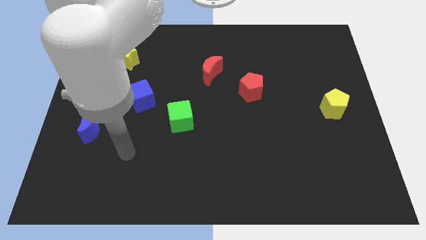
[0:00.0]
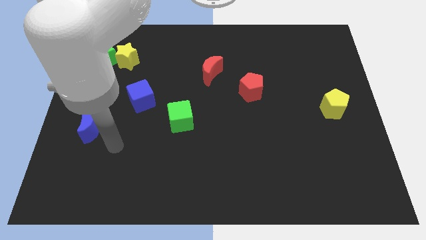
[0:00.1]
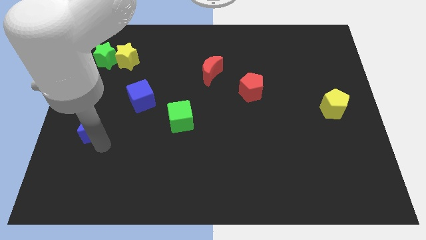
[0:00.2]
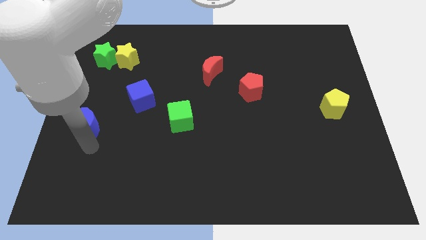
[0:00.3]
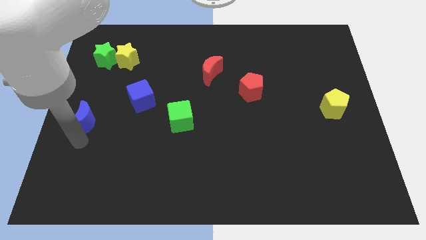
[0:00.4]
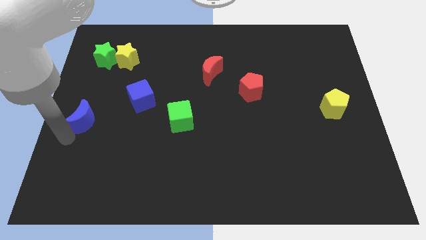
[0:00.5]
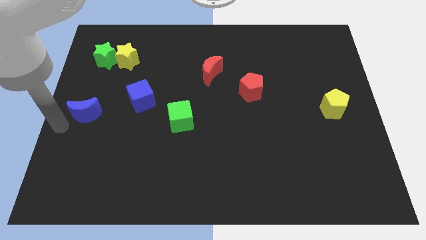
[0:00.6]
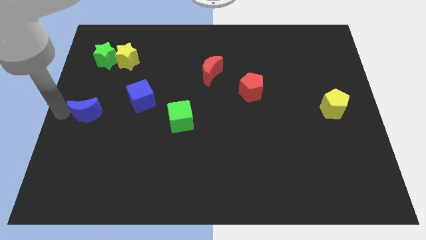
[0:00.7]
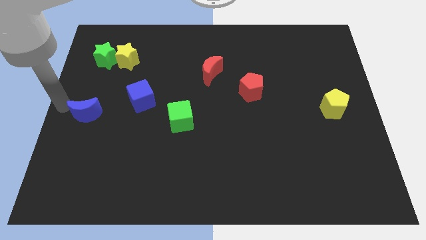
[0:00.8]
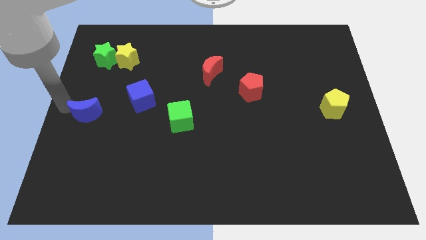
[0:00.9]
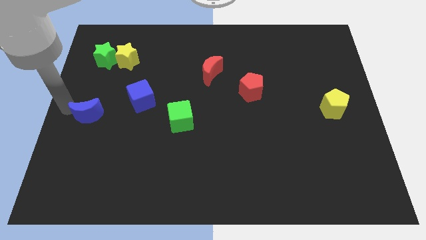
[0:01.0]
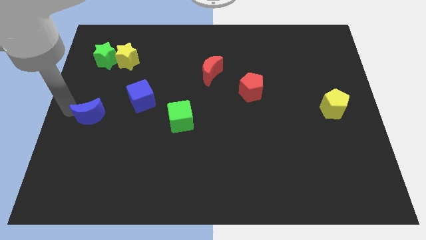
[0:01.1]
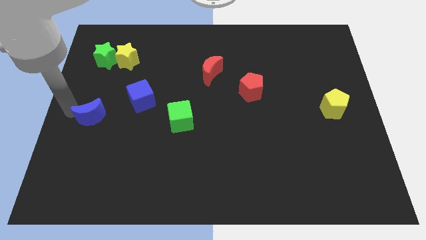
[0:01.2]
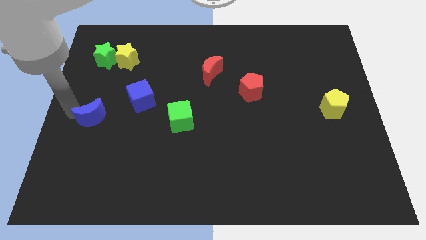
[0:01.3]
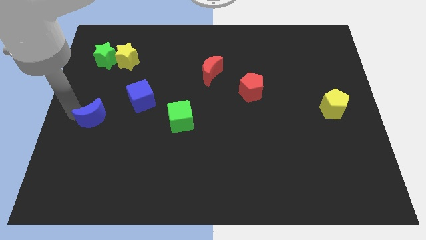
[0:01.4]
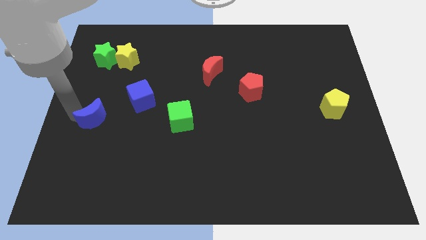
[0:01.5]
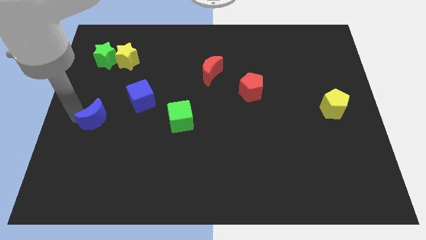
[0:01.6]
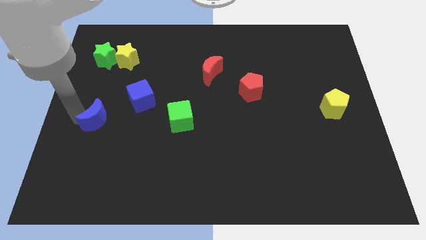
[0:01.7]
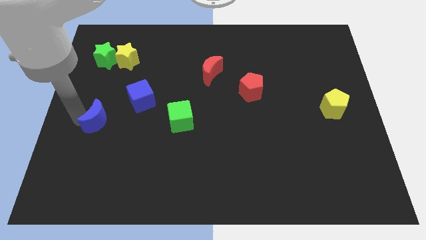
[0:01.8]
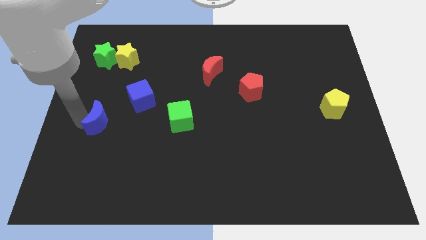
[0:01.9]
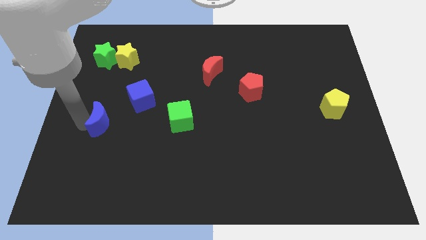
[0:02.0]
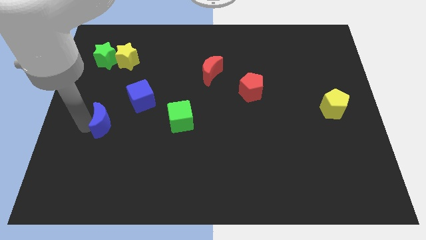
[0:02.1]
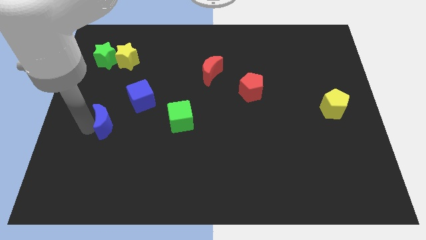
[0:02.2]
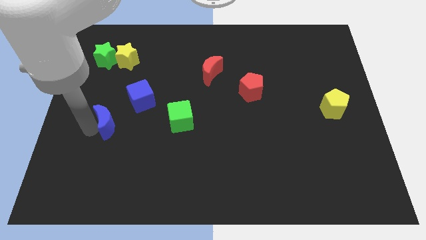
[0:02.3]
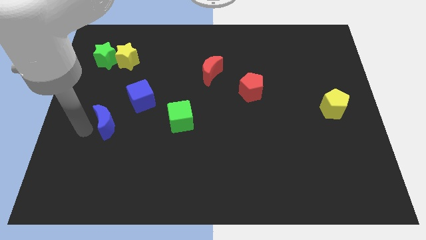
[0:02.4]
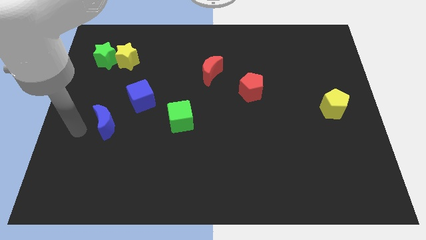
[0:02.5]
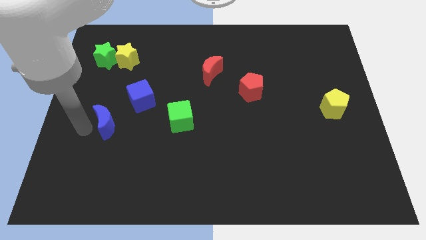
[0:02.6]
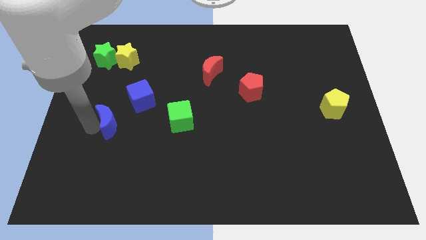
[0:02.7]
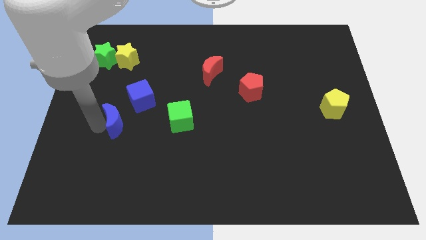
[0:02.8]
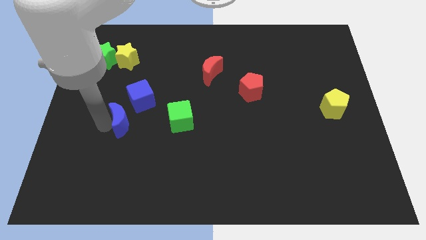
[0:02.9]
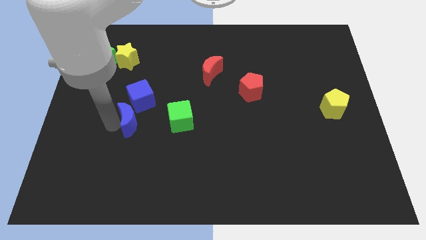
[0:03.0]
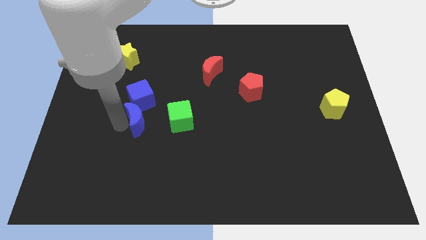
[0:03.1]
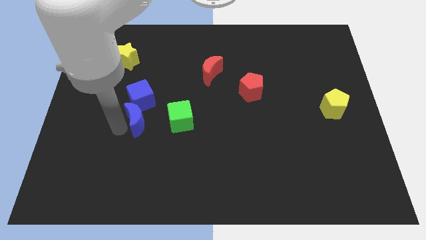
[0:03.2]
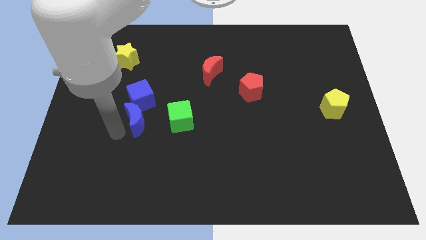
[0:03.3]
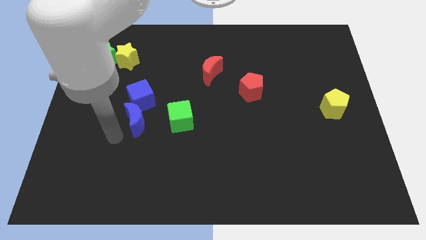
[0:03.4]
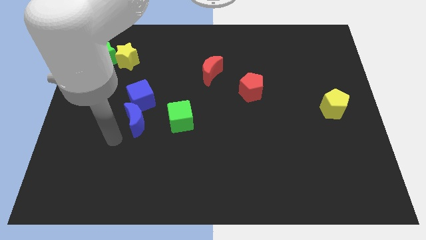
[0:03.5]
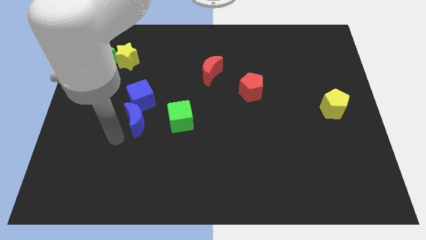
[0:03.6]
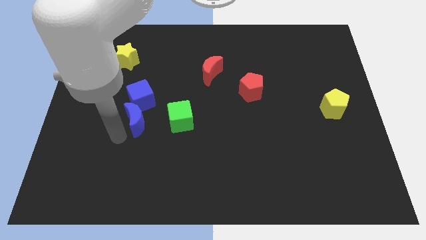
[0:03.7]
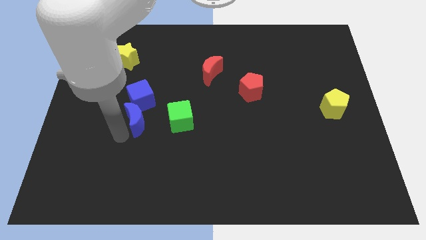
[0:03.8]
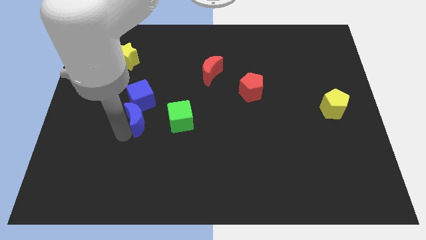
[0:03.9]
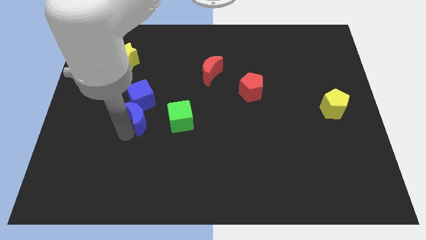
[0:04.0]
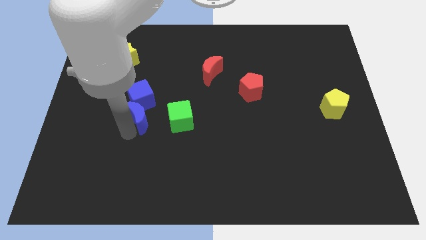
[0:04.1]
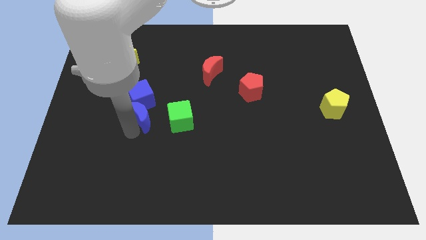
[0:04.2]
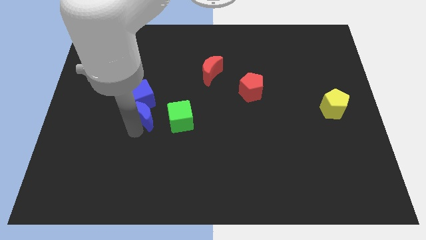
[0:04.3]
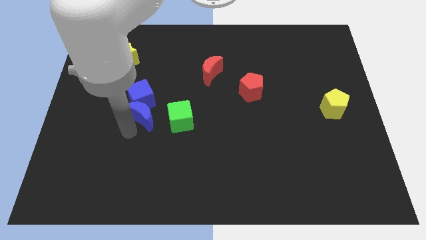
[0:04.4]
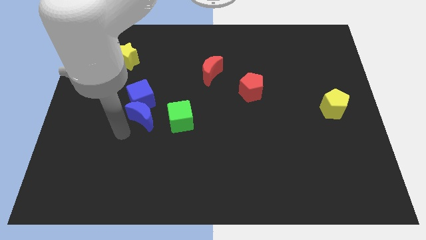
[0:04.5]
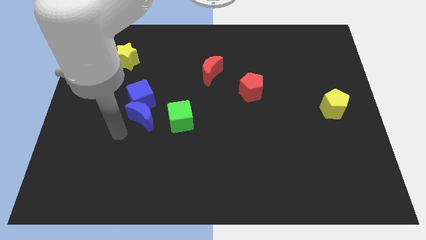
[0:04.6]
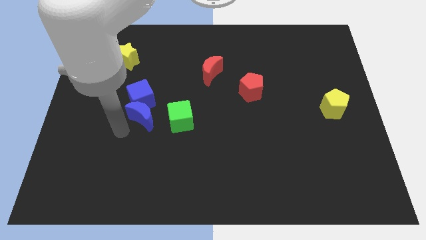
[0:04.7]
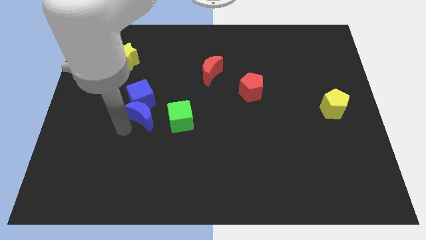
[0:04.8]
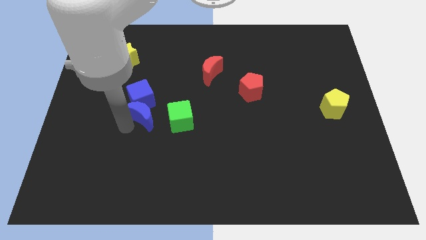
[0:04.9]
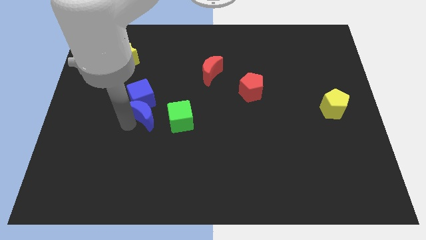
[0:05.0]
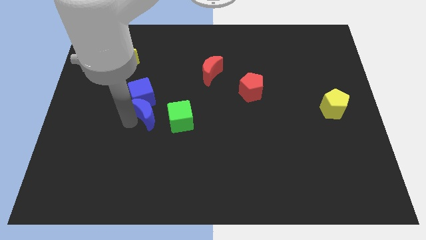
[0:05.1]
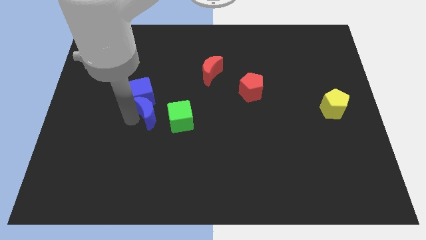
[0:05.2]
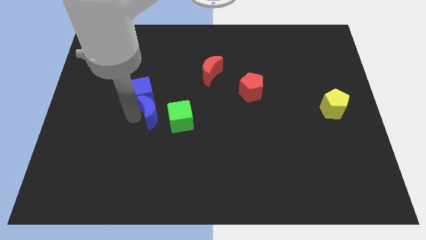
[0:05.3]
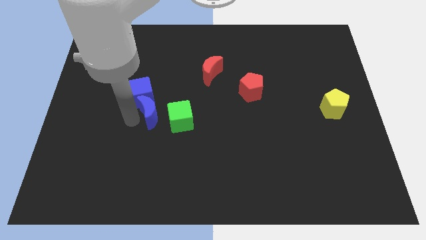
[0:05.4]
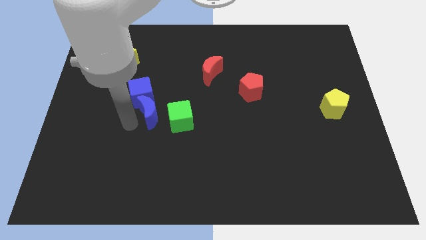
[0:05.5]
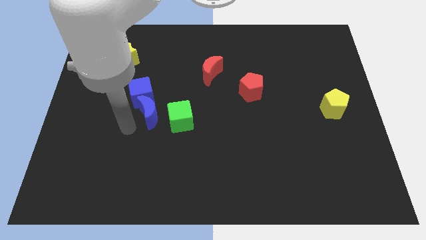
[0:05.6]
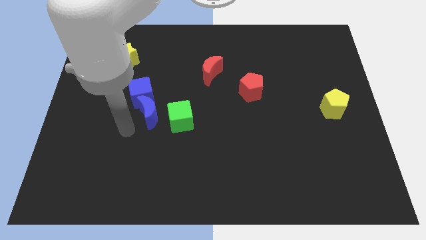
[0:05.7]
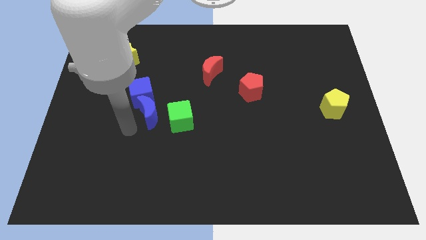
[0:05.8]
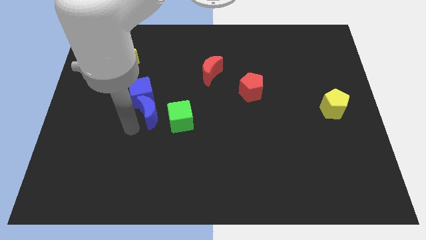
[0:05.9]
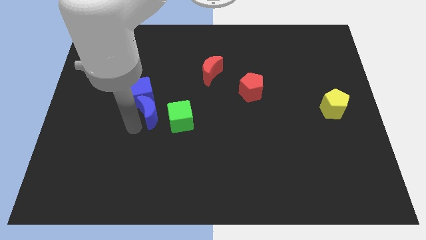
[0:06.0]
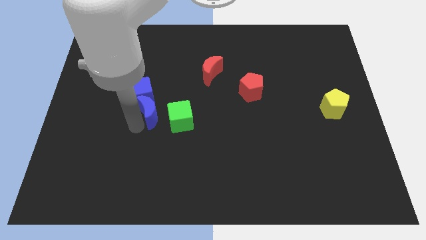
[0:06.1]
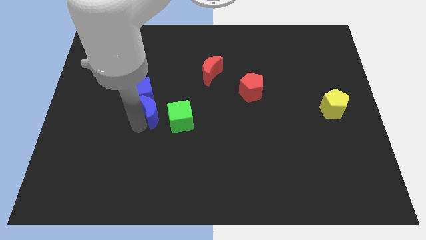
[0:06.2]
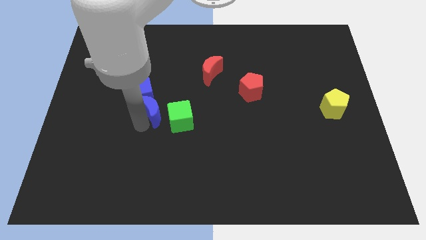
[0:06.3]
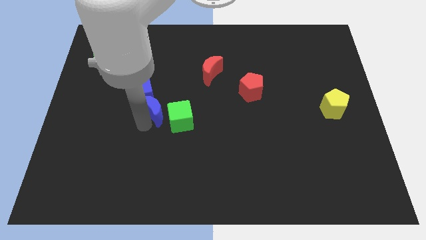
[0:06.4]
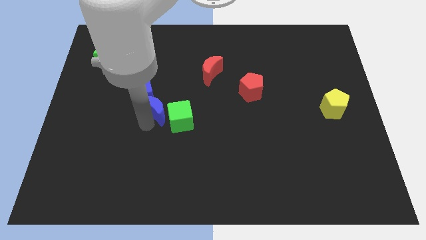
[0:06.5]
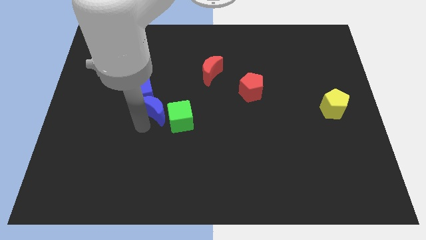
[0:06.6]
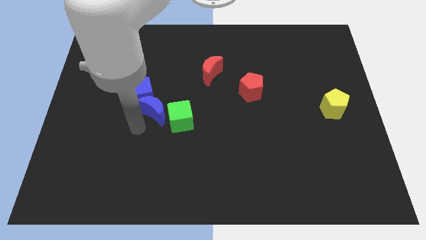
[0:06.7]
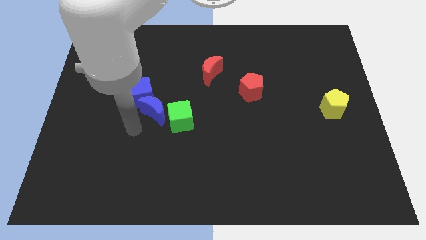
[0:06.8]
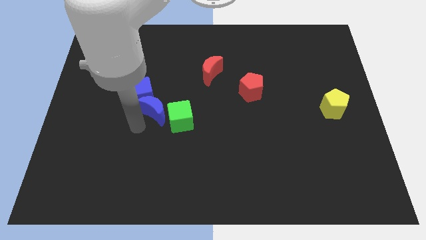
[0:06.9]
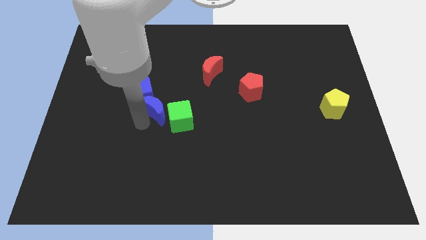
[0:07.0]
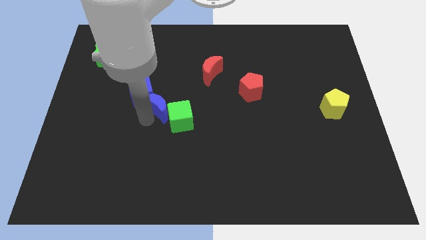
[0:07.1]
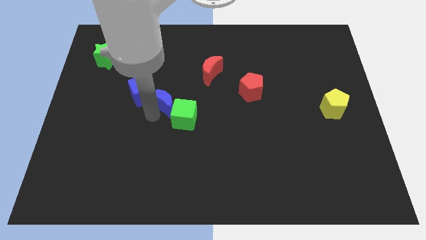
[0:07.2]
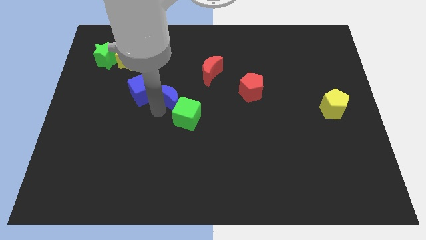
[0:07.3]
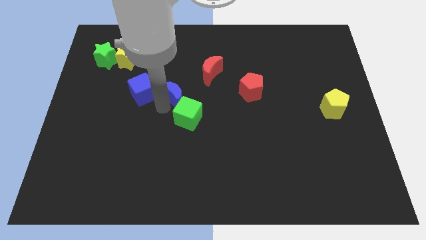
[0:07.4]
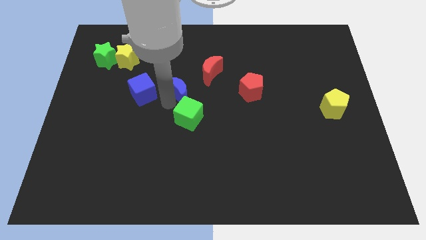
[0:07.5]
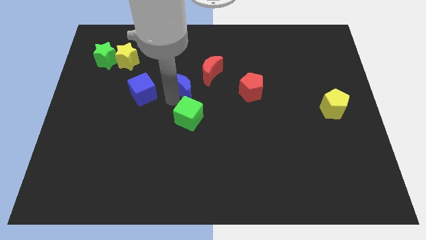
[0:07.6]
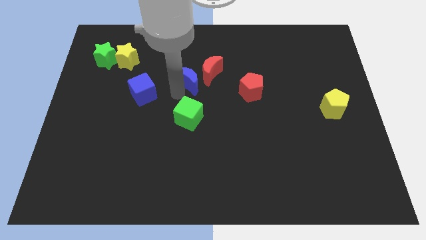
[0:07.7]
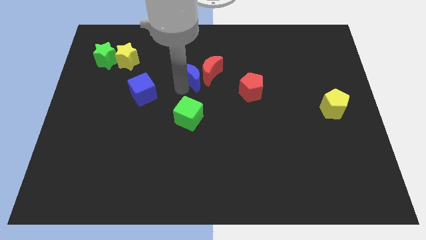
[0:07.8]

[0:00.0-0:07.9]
slide the blue moon next to the red moon
